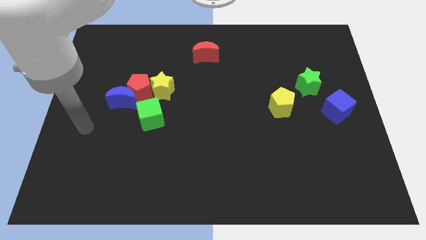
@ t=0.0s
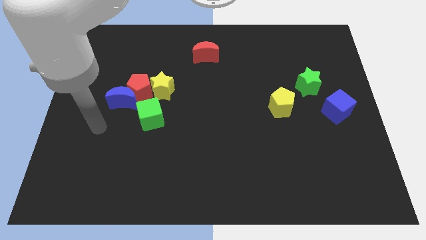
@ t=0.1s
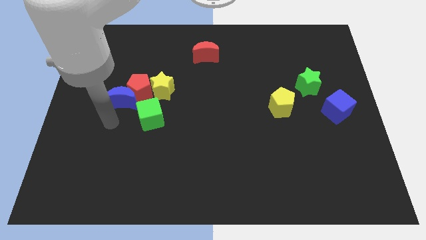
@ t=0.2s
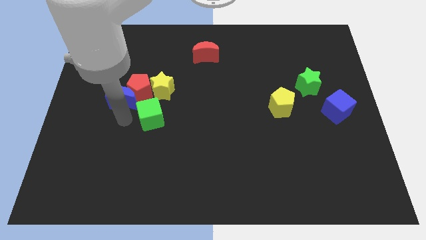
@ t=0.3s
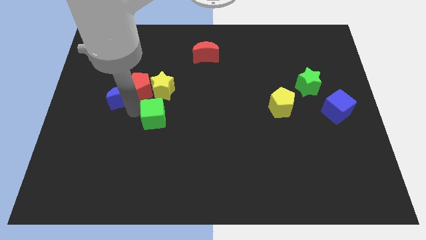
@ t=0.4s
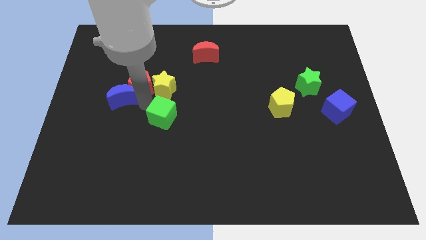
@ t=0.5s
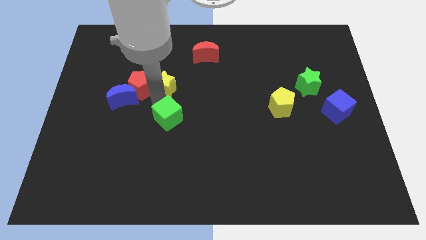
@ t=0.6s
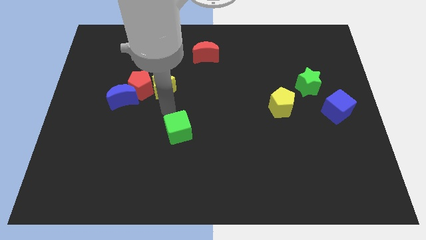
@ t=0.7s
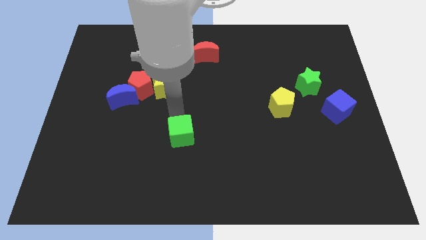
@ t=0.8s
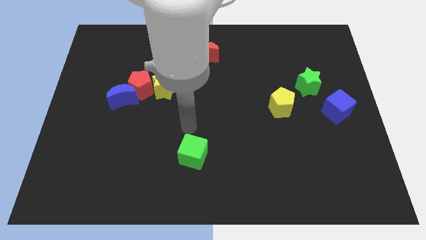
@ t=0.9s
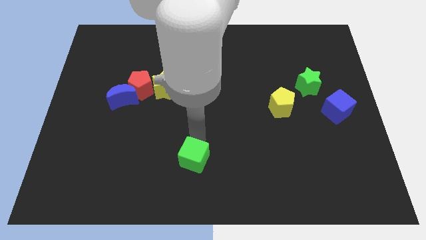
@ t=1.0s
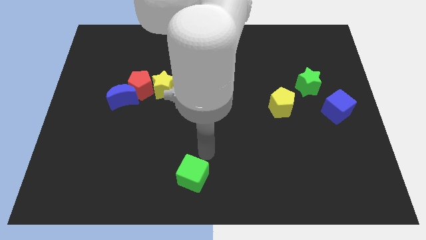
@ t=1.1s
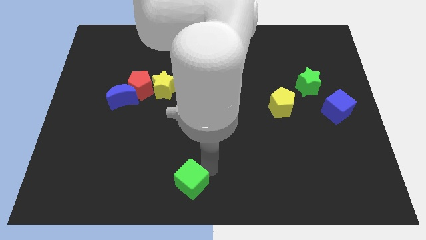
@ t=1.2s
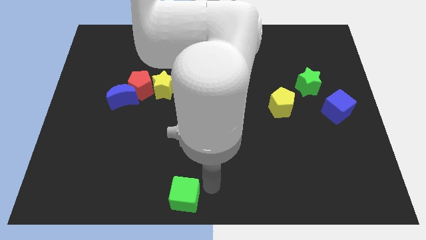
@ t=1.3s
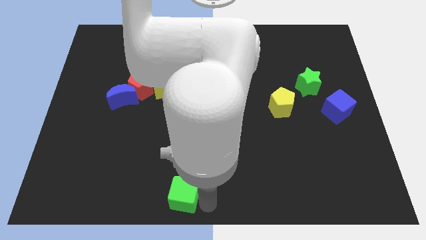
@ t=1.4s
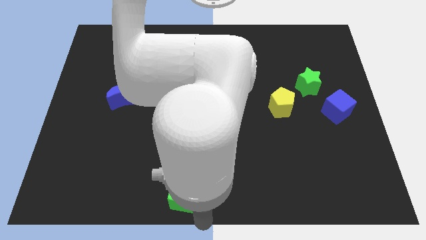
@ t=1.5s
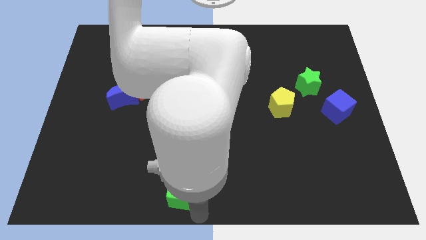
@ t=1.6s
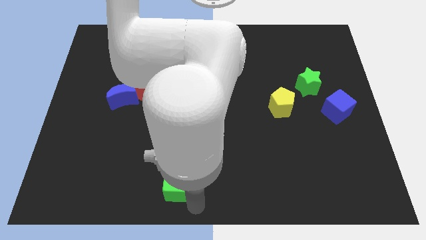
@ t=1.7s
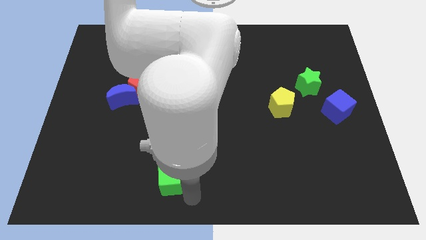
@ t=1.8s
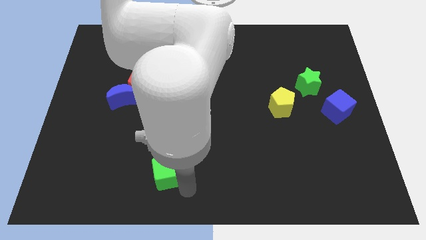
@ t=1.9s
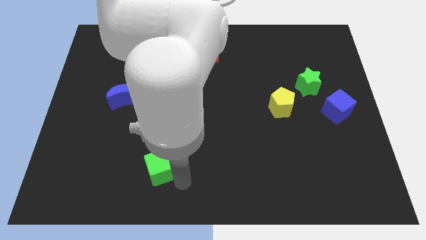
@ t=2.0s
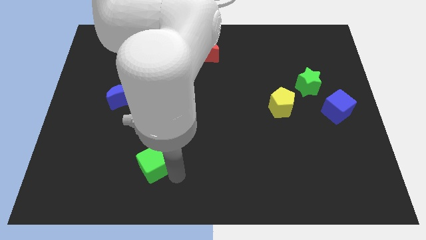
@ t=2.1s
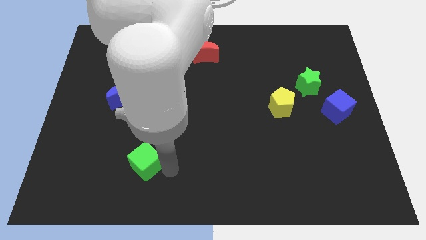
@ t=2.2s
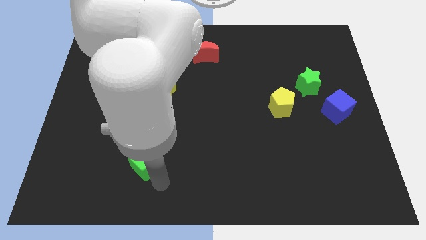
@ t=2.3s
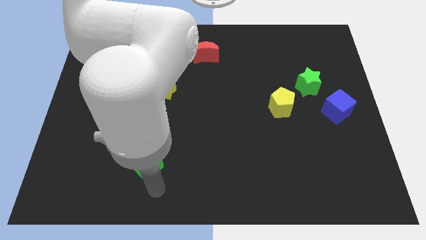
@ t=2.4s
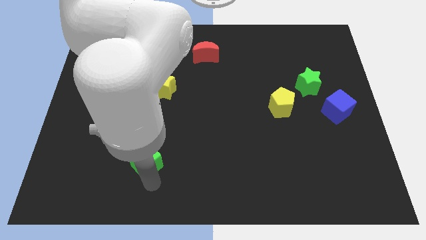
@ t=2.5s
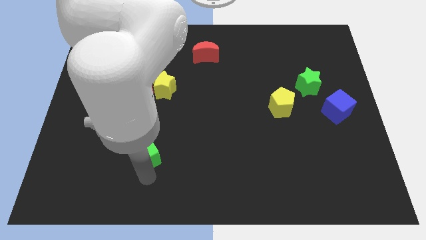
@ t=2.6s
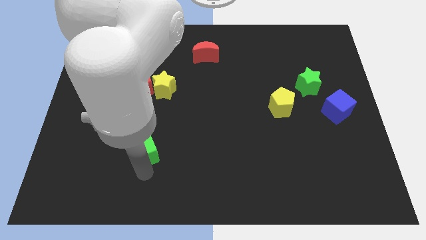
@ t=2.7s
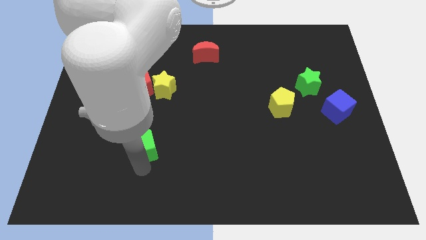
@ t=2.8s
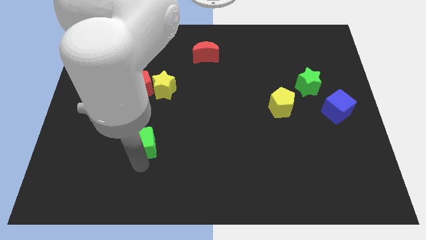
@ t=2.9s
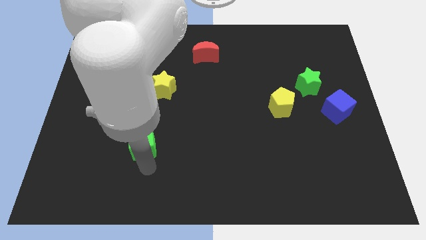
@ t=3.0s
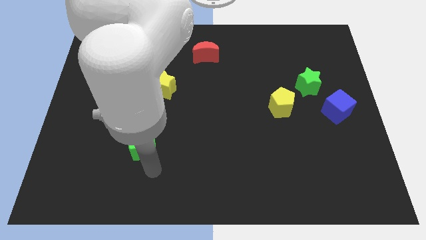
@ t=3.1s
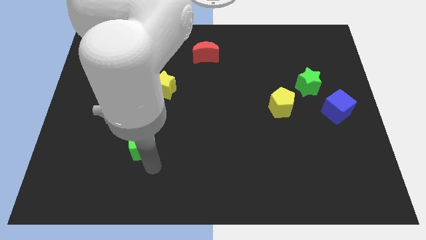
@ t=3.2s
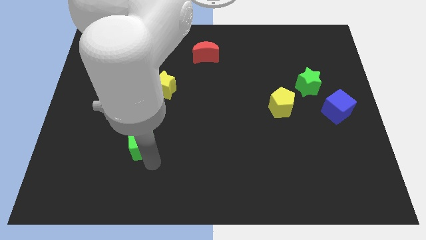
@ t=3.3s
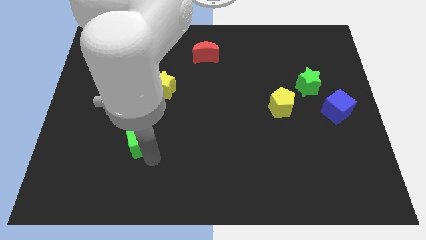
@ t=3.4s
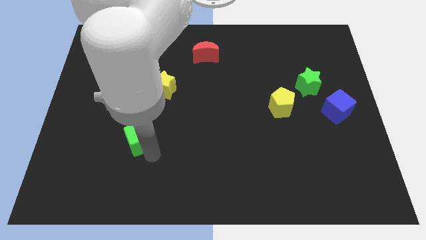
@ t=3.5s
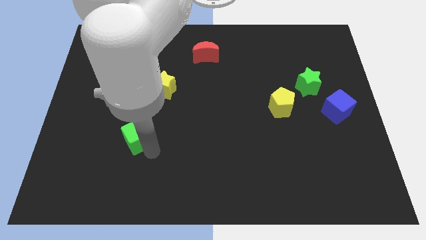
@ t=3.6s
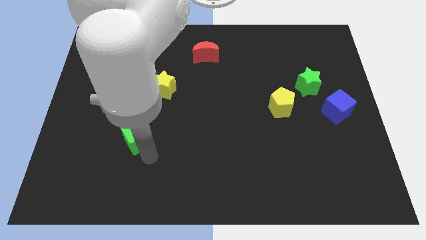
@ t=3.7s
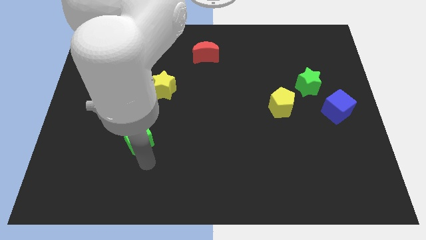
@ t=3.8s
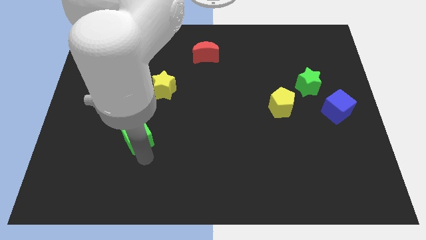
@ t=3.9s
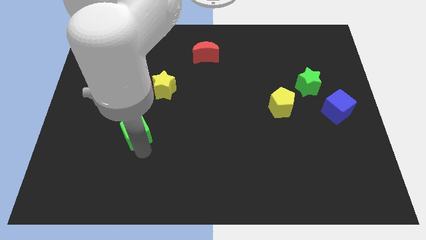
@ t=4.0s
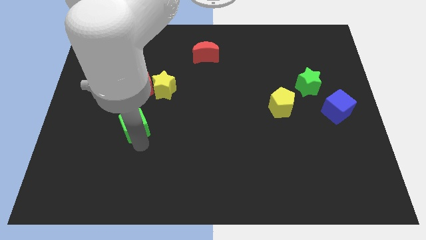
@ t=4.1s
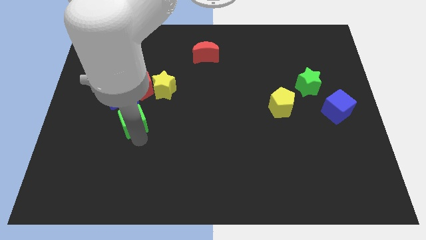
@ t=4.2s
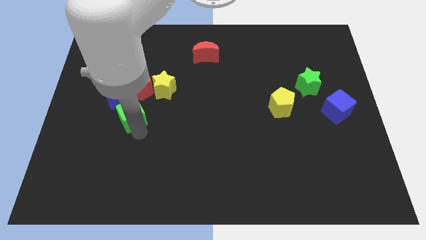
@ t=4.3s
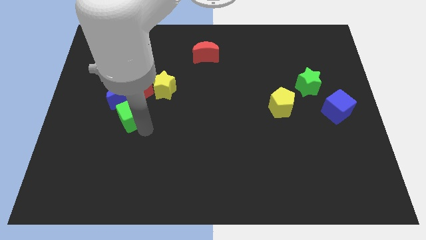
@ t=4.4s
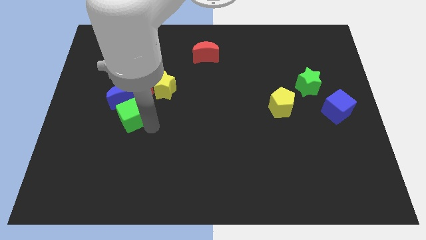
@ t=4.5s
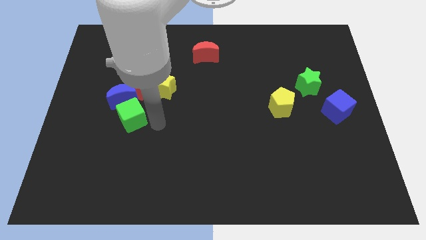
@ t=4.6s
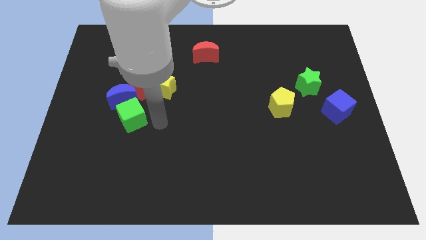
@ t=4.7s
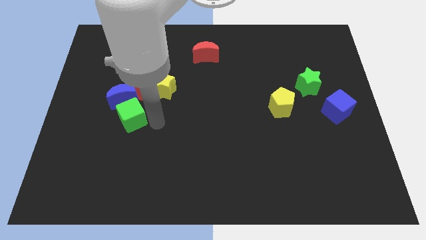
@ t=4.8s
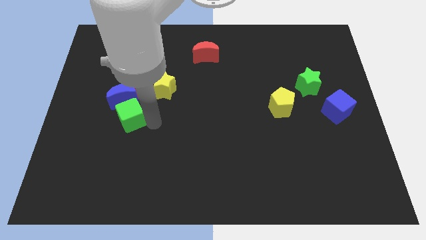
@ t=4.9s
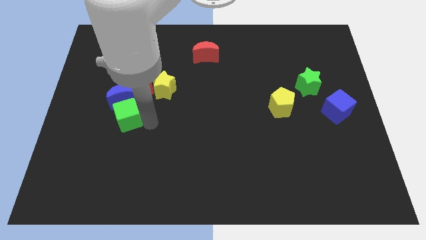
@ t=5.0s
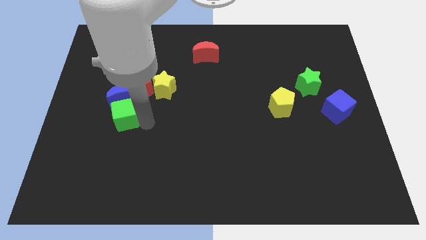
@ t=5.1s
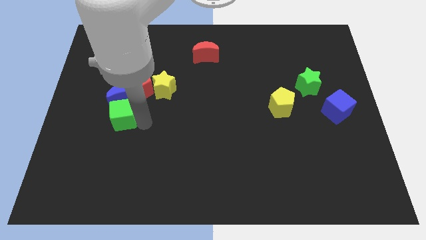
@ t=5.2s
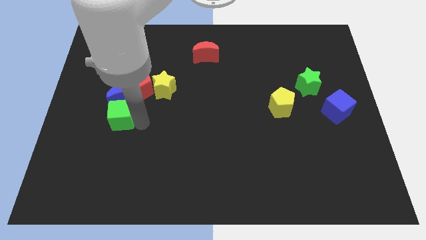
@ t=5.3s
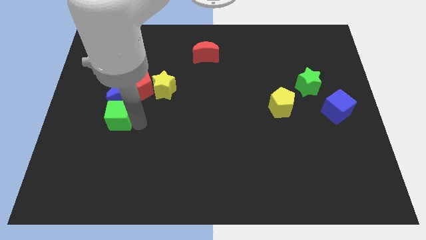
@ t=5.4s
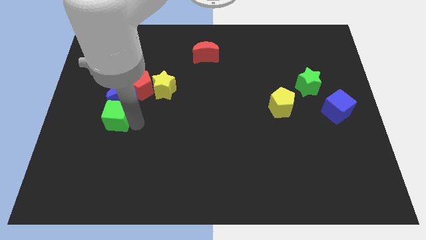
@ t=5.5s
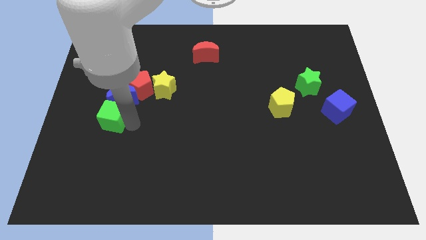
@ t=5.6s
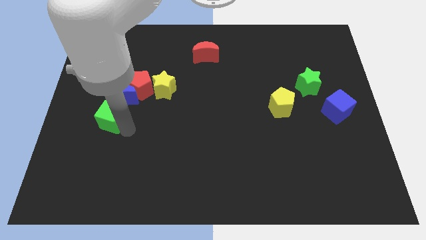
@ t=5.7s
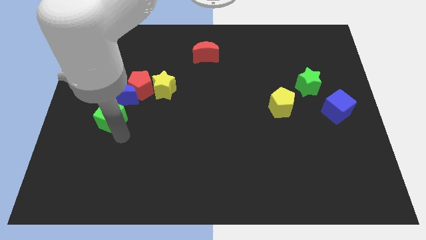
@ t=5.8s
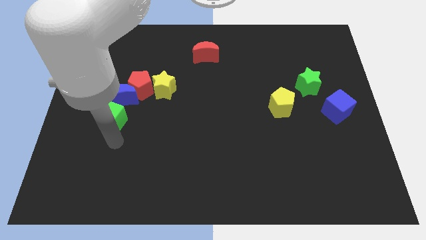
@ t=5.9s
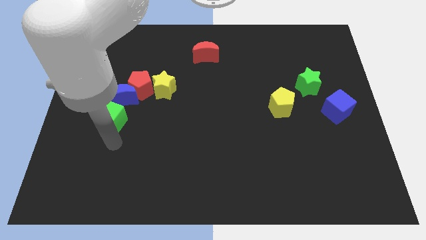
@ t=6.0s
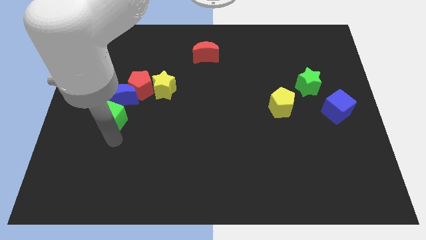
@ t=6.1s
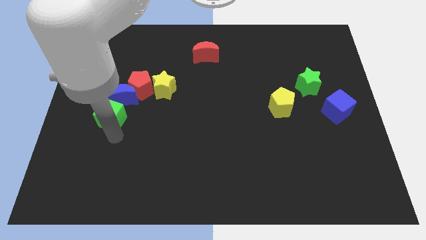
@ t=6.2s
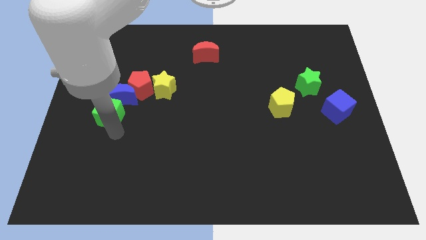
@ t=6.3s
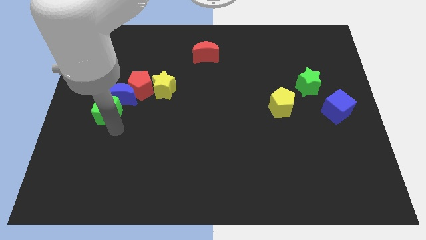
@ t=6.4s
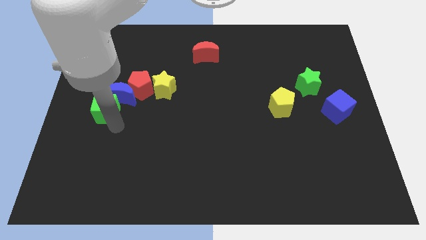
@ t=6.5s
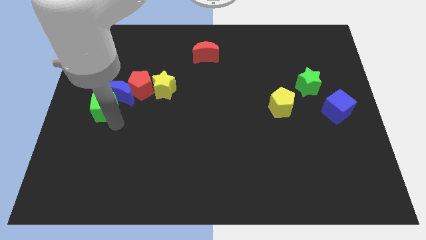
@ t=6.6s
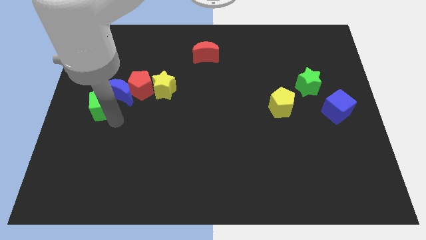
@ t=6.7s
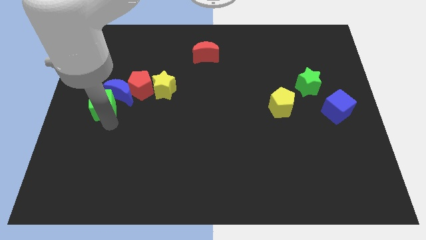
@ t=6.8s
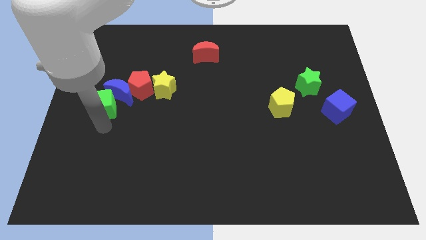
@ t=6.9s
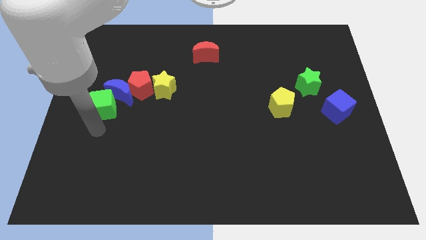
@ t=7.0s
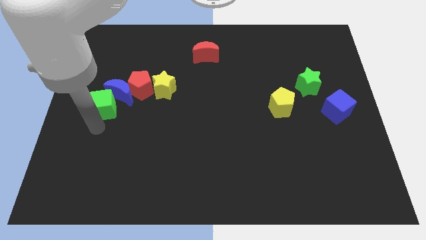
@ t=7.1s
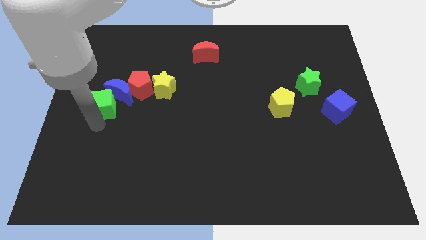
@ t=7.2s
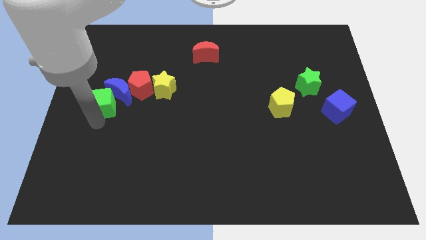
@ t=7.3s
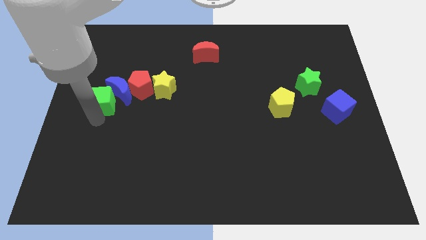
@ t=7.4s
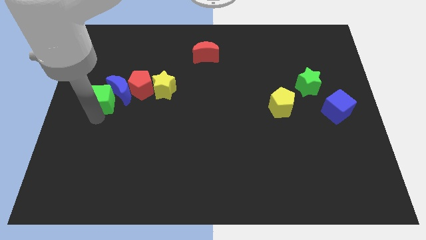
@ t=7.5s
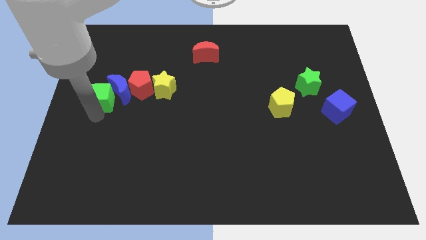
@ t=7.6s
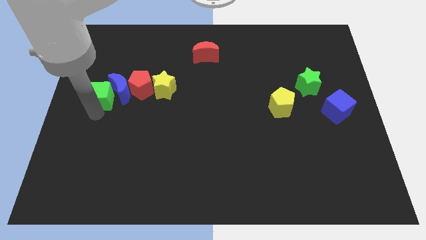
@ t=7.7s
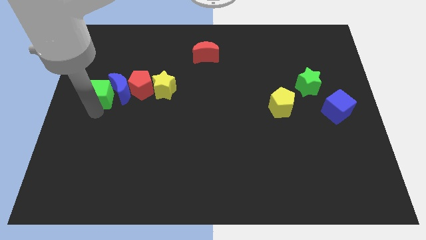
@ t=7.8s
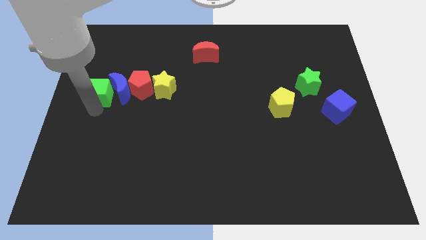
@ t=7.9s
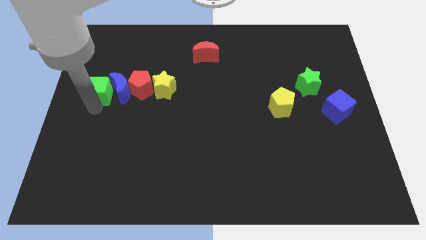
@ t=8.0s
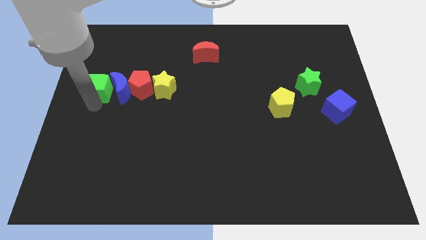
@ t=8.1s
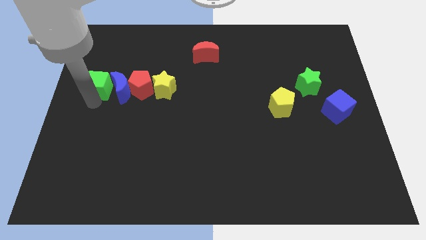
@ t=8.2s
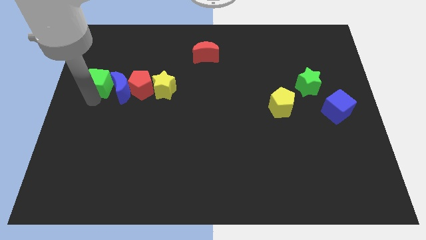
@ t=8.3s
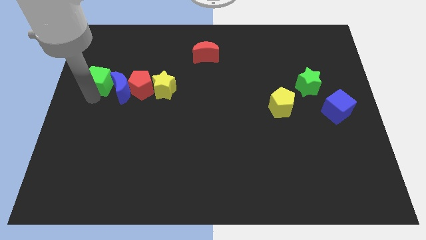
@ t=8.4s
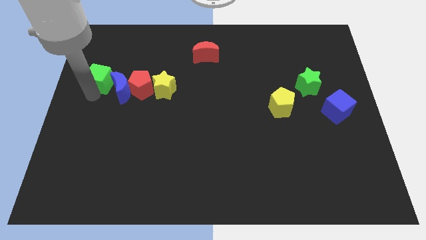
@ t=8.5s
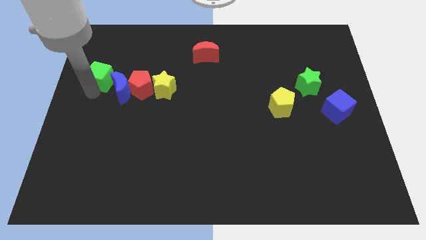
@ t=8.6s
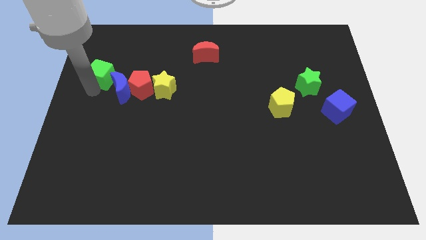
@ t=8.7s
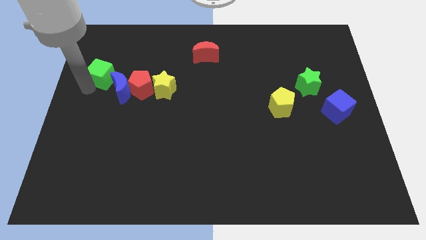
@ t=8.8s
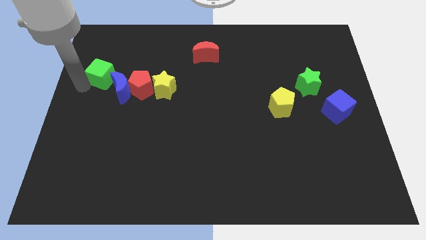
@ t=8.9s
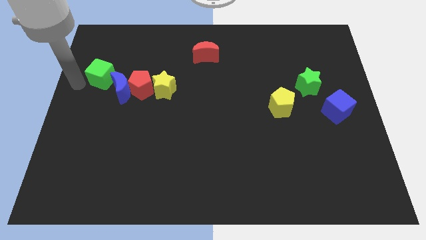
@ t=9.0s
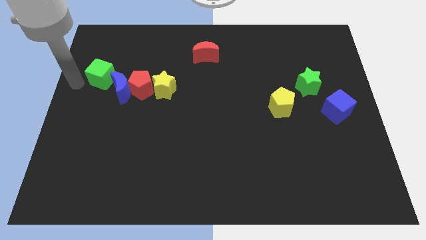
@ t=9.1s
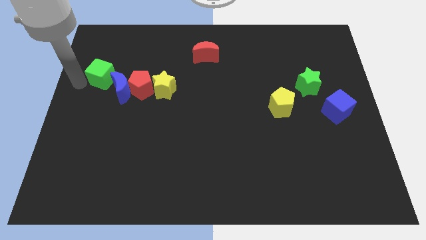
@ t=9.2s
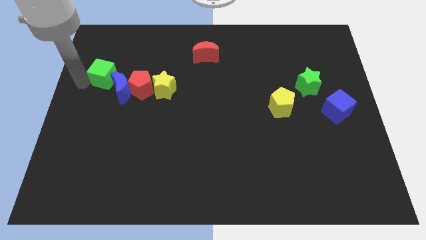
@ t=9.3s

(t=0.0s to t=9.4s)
move the green cube to the top left side of the red pentagon
